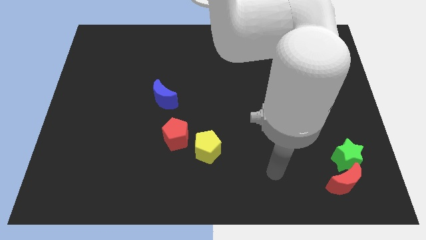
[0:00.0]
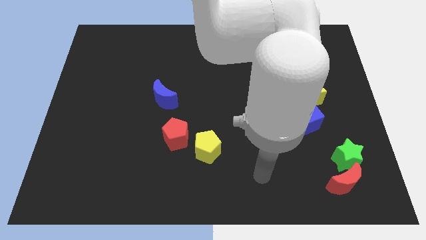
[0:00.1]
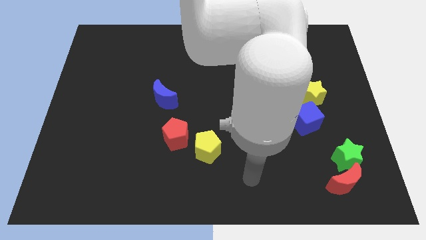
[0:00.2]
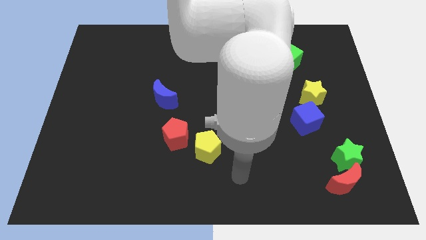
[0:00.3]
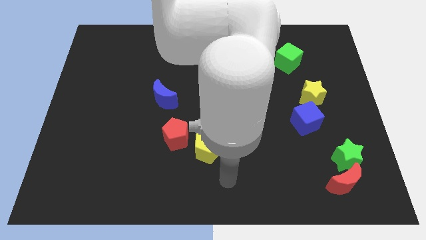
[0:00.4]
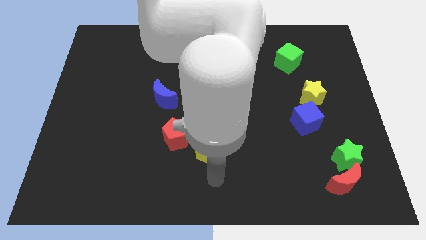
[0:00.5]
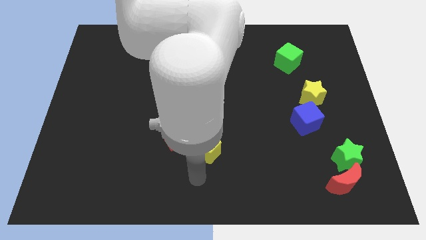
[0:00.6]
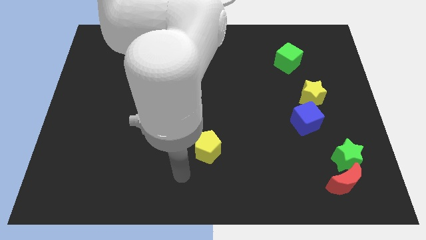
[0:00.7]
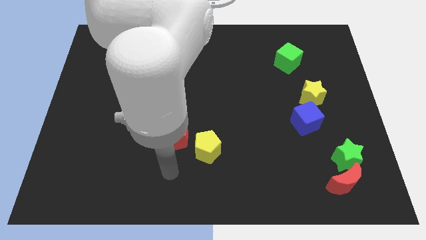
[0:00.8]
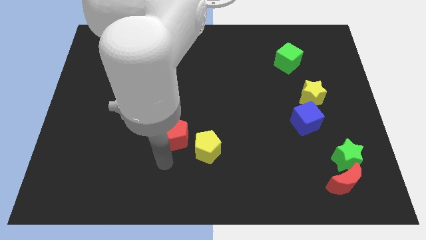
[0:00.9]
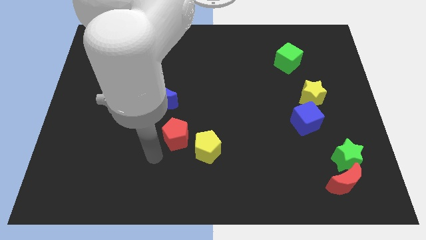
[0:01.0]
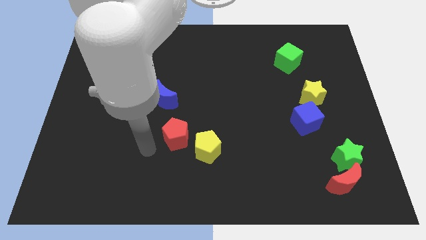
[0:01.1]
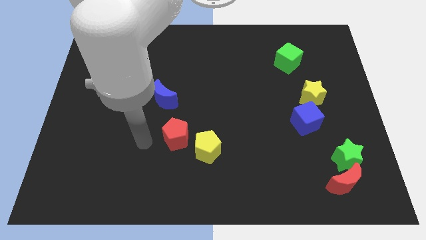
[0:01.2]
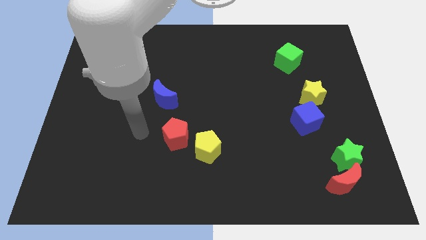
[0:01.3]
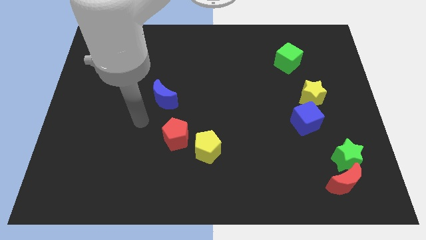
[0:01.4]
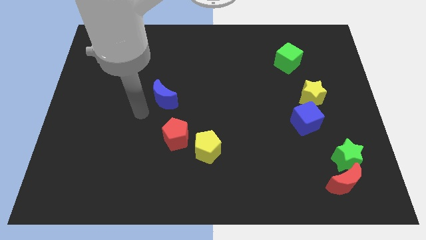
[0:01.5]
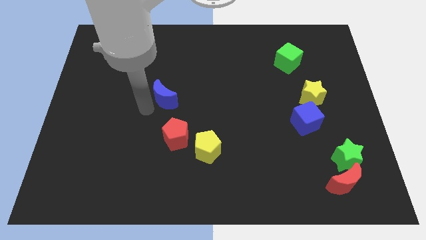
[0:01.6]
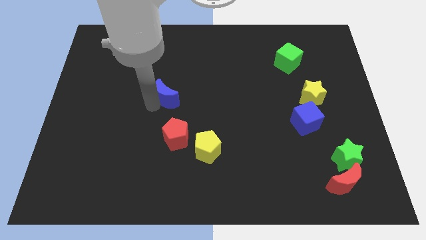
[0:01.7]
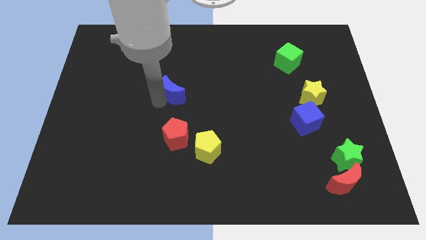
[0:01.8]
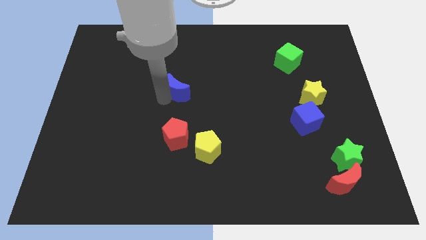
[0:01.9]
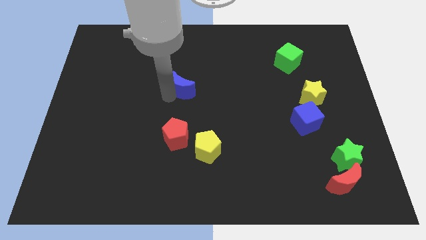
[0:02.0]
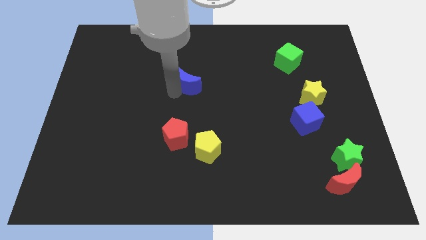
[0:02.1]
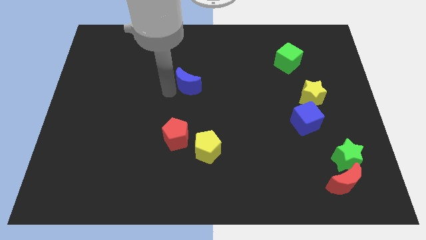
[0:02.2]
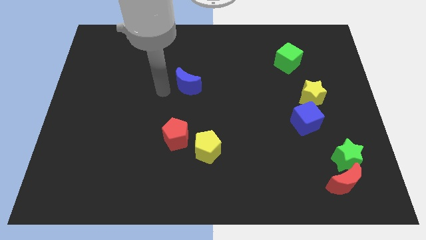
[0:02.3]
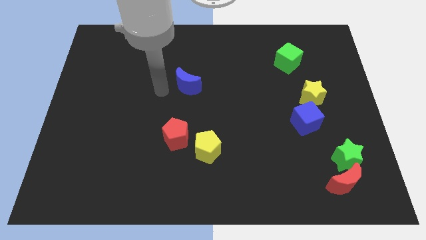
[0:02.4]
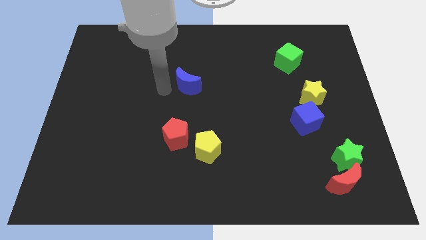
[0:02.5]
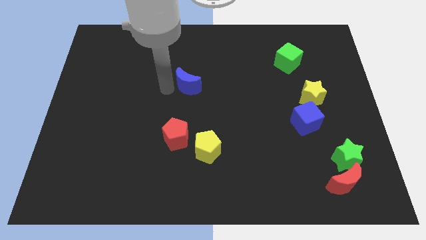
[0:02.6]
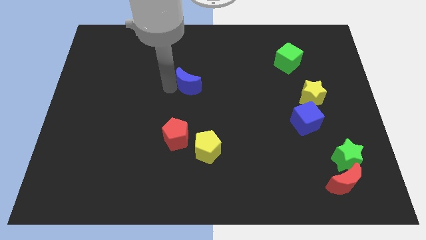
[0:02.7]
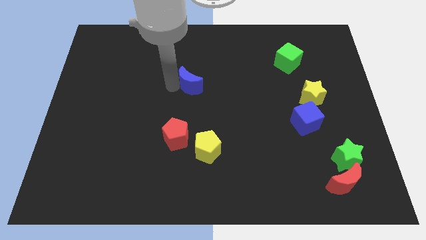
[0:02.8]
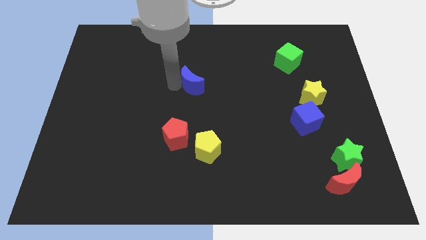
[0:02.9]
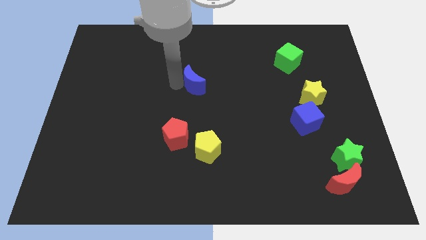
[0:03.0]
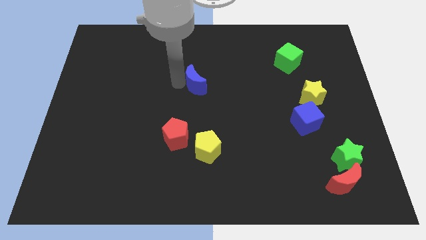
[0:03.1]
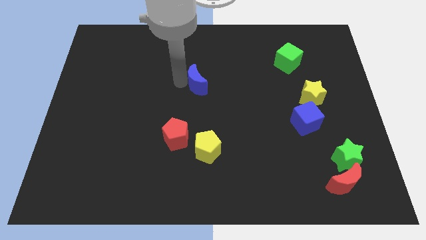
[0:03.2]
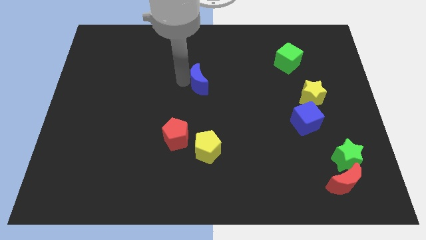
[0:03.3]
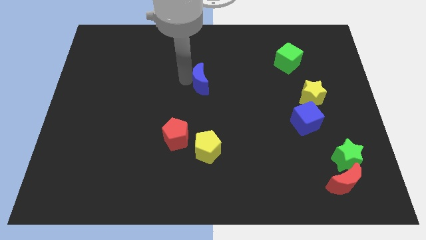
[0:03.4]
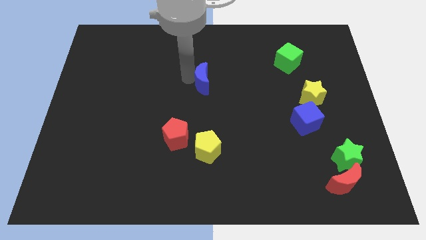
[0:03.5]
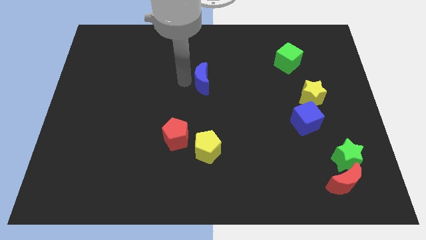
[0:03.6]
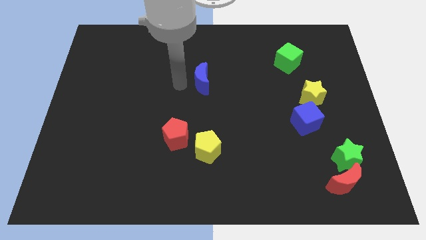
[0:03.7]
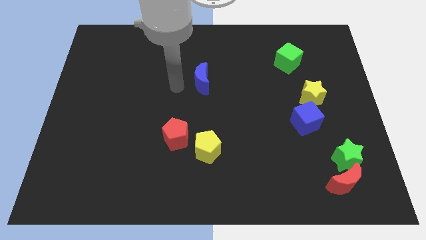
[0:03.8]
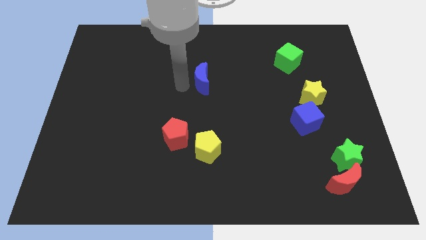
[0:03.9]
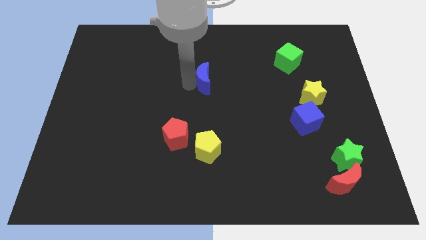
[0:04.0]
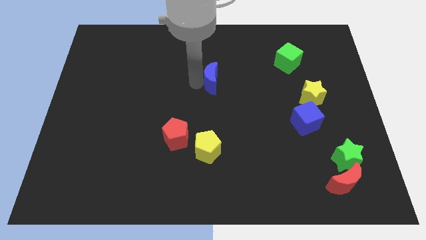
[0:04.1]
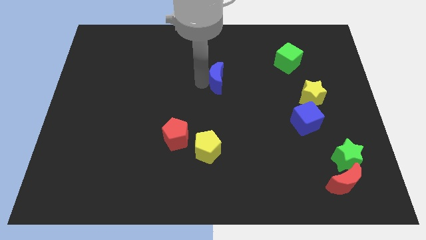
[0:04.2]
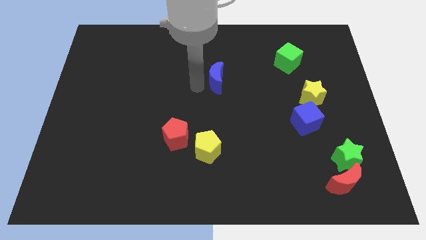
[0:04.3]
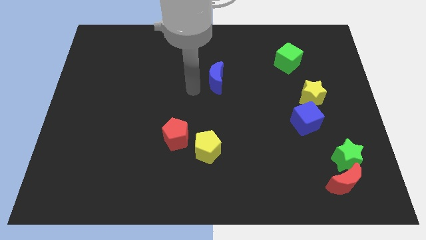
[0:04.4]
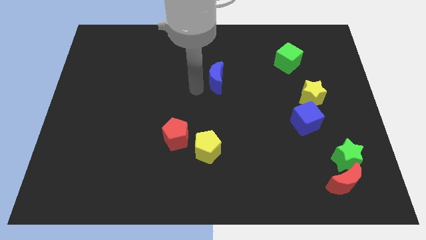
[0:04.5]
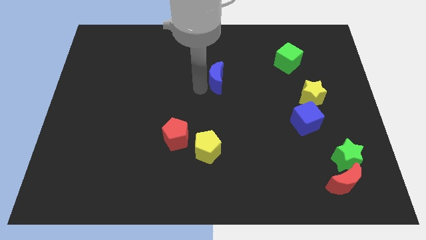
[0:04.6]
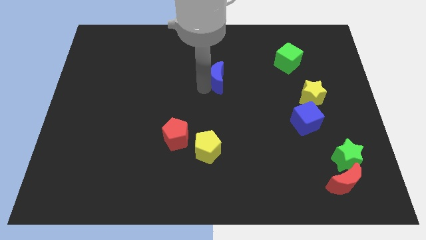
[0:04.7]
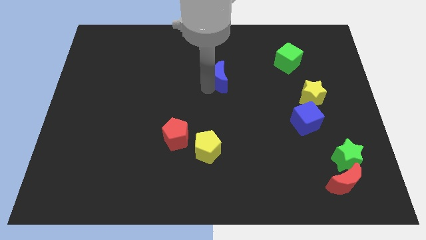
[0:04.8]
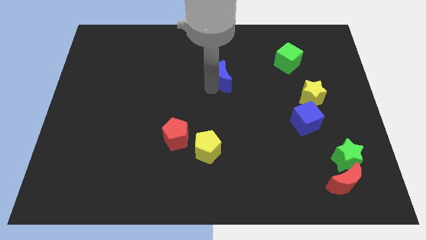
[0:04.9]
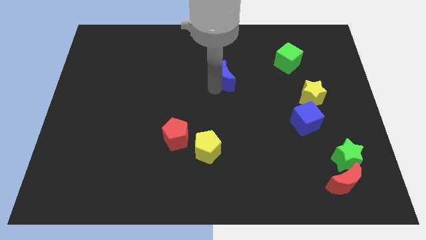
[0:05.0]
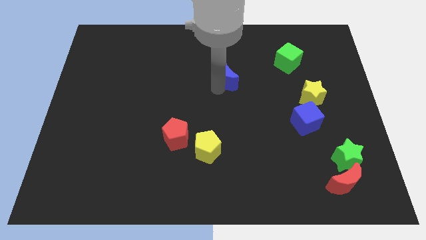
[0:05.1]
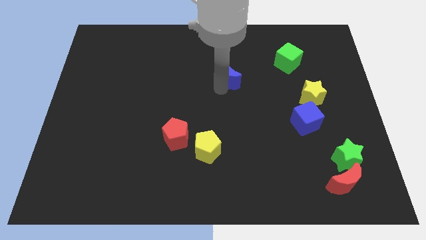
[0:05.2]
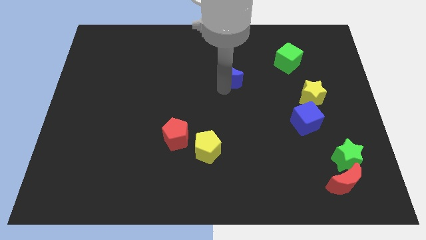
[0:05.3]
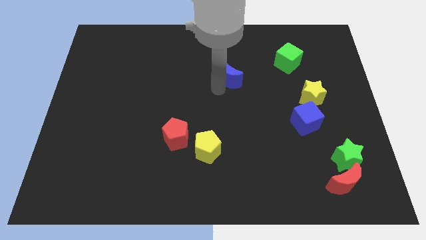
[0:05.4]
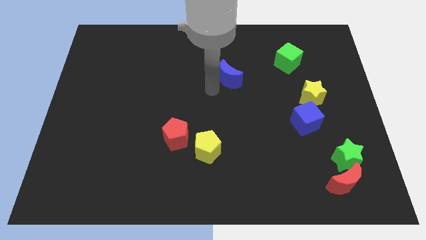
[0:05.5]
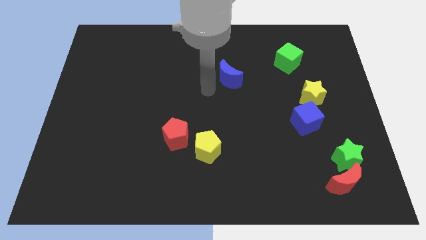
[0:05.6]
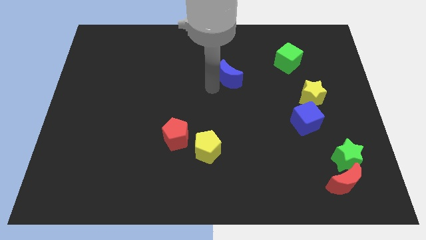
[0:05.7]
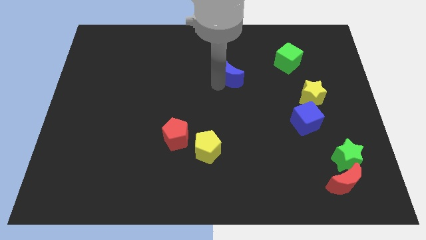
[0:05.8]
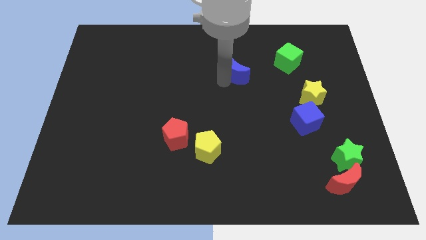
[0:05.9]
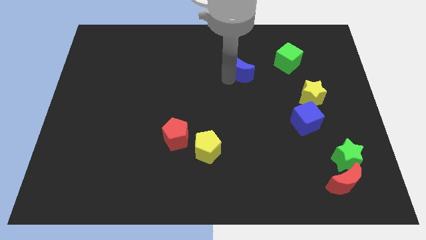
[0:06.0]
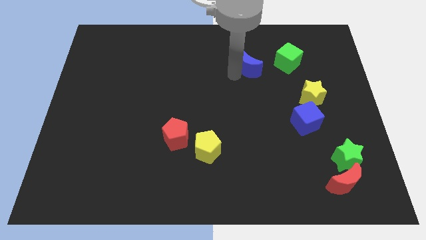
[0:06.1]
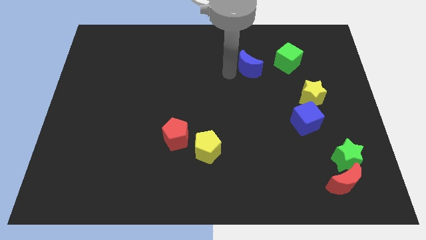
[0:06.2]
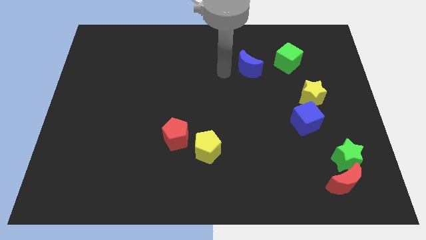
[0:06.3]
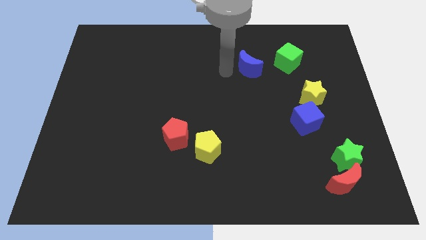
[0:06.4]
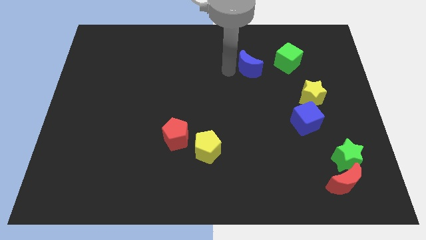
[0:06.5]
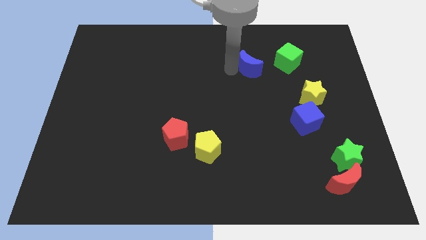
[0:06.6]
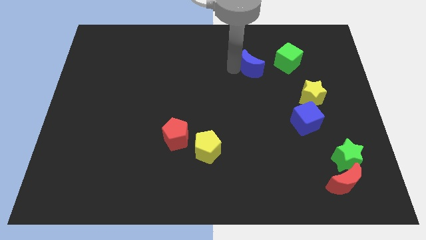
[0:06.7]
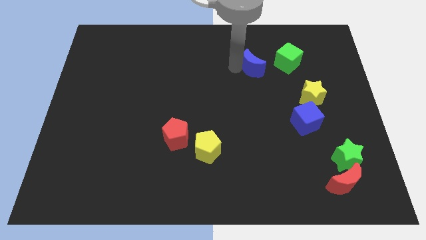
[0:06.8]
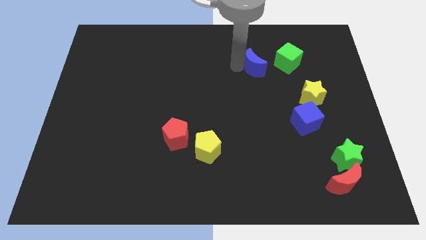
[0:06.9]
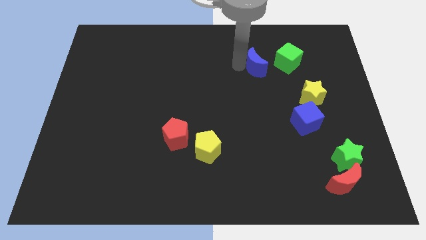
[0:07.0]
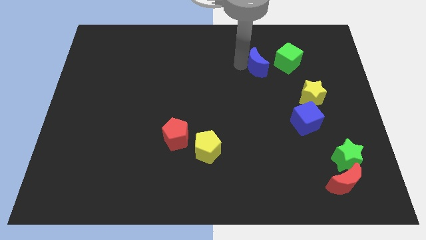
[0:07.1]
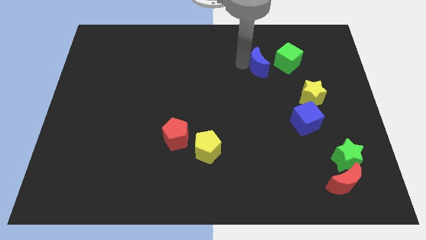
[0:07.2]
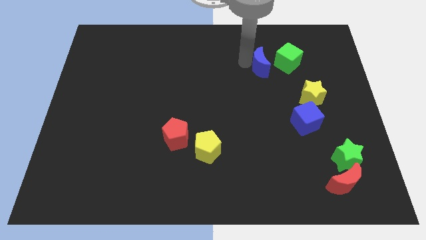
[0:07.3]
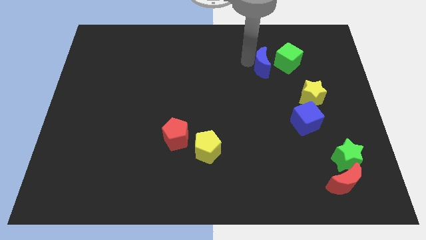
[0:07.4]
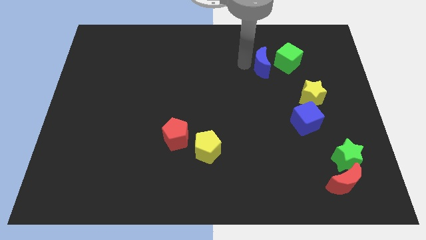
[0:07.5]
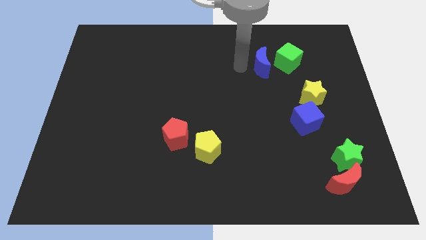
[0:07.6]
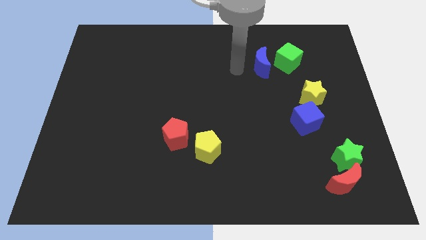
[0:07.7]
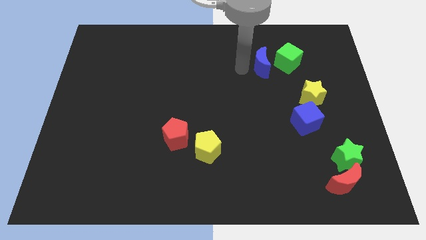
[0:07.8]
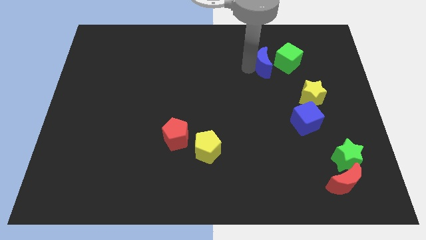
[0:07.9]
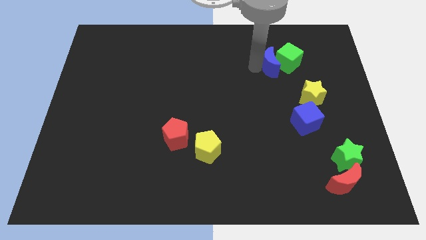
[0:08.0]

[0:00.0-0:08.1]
move the blue moon next to the green cube

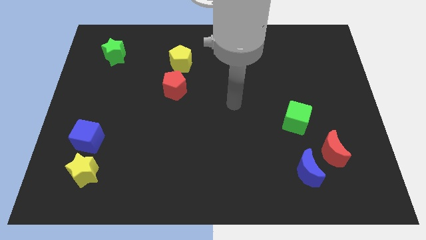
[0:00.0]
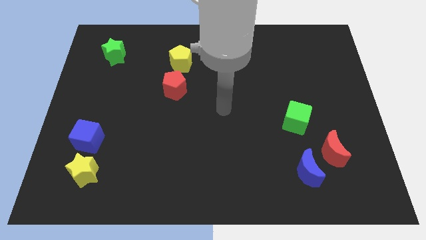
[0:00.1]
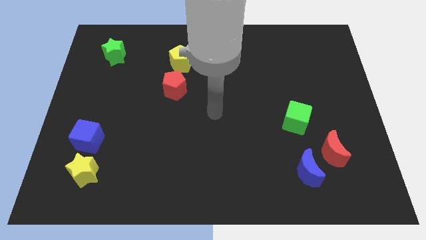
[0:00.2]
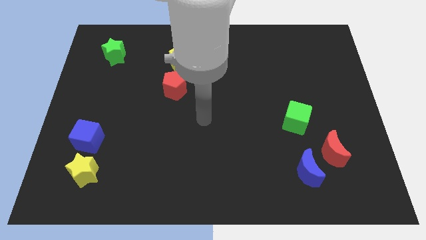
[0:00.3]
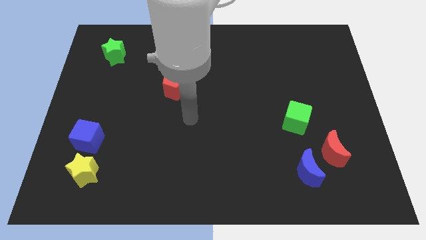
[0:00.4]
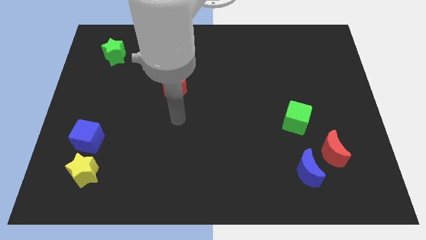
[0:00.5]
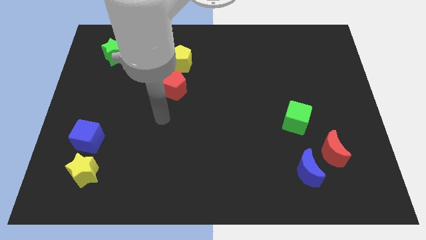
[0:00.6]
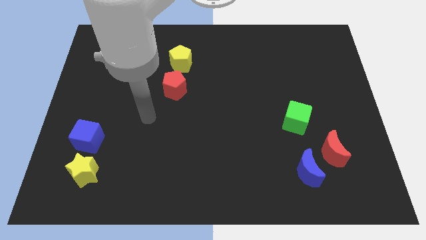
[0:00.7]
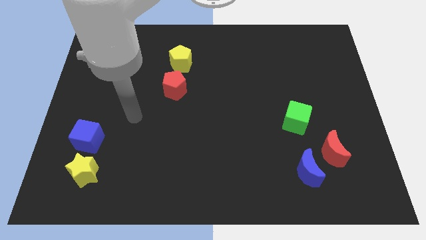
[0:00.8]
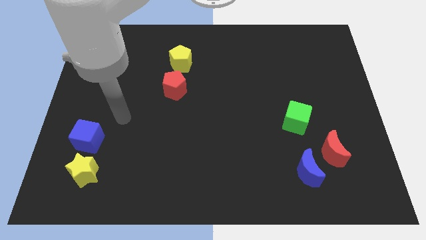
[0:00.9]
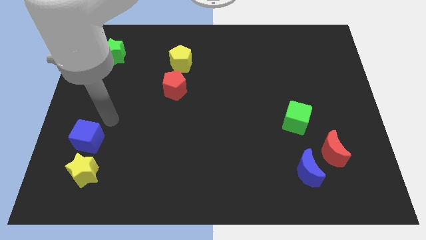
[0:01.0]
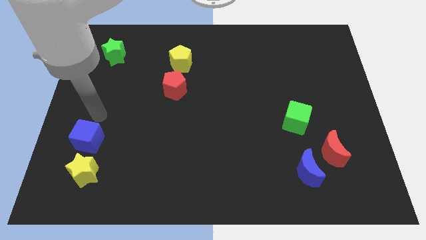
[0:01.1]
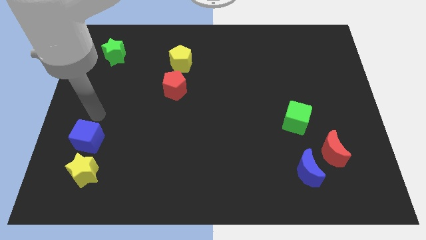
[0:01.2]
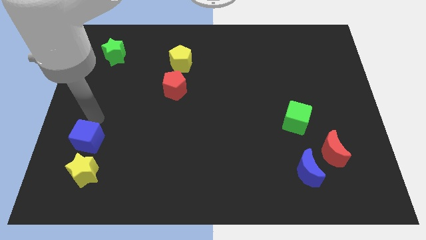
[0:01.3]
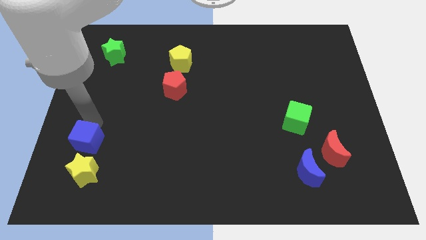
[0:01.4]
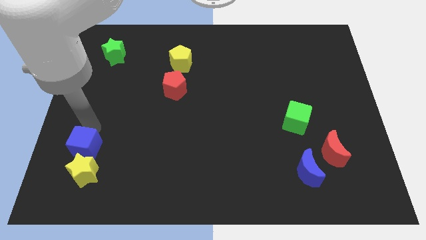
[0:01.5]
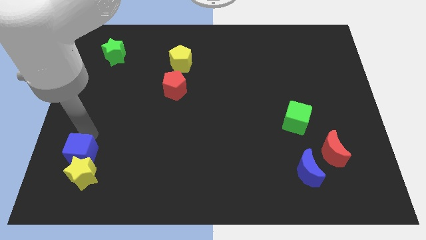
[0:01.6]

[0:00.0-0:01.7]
push the blue cube close to the yellow star
